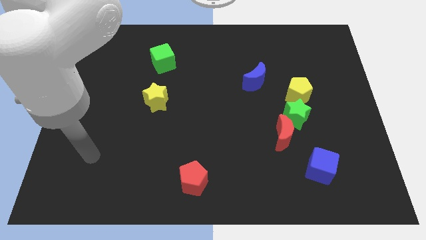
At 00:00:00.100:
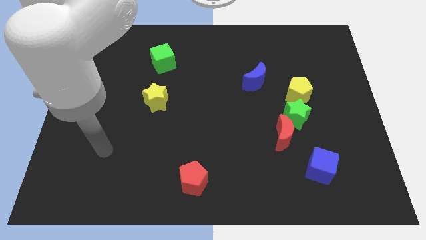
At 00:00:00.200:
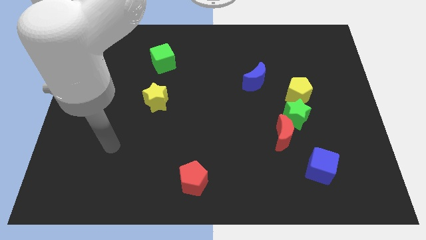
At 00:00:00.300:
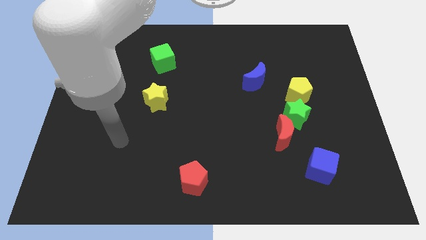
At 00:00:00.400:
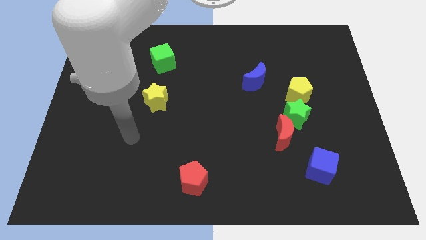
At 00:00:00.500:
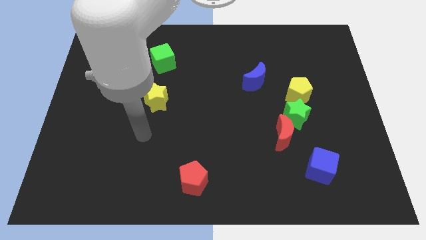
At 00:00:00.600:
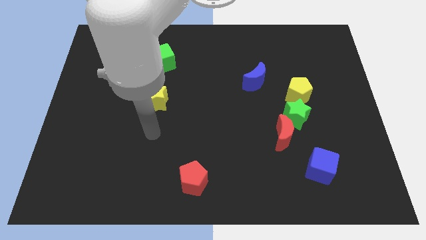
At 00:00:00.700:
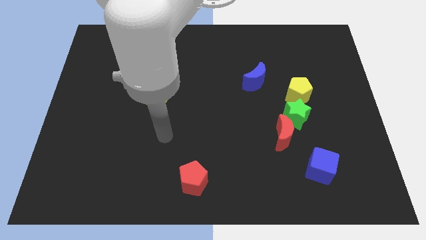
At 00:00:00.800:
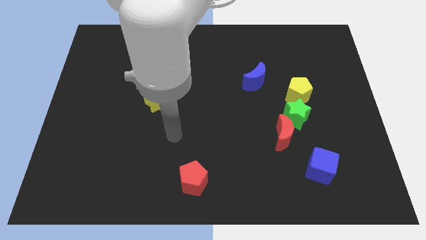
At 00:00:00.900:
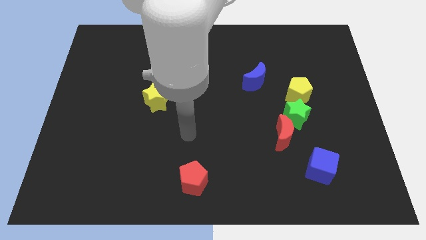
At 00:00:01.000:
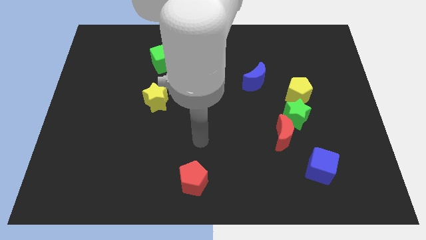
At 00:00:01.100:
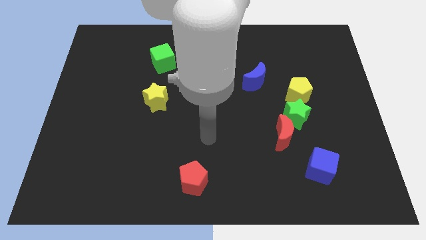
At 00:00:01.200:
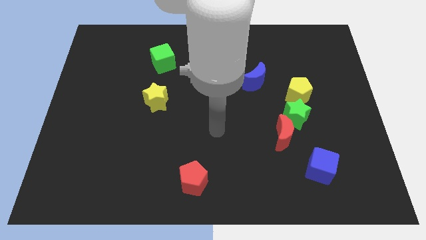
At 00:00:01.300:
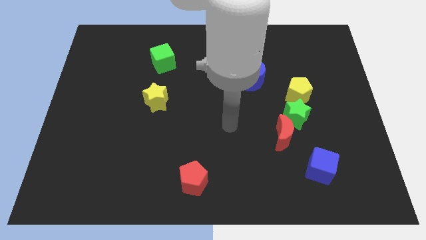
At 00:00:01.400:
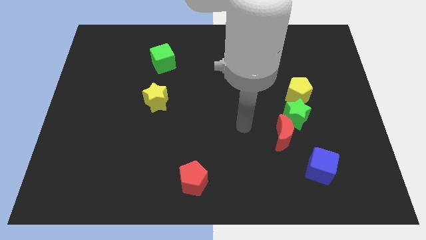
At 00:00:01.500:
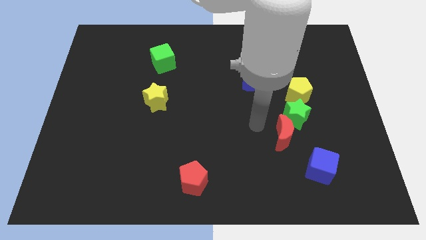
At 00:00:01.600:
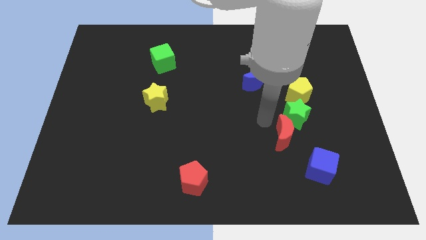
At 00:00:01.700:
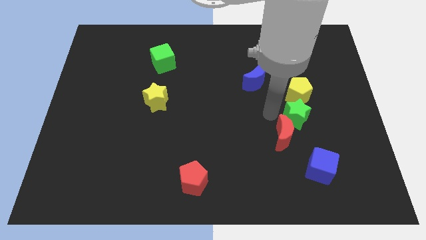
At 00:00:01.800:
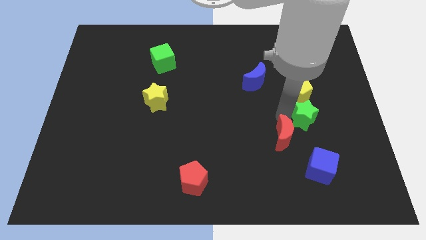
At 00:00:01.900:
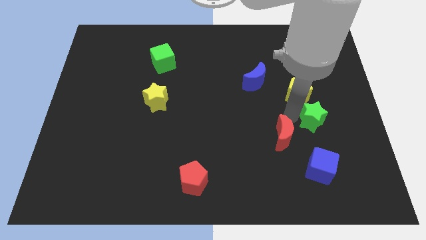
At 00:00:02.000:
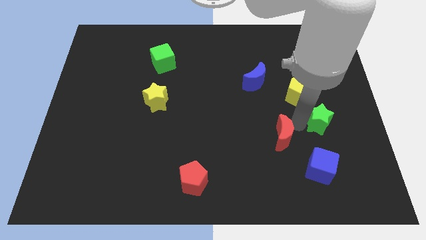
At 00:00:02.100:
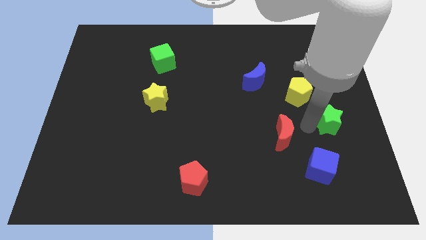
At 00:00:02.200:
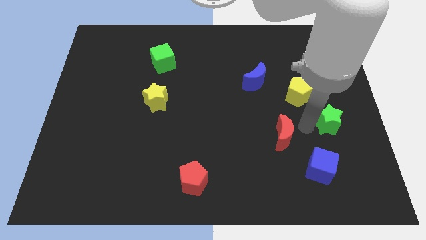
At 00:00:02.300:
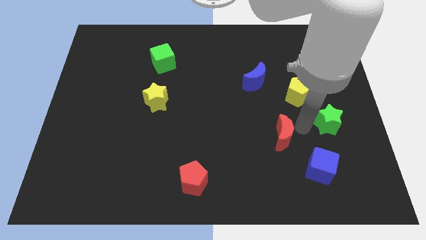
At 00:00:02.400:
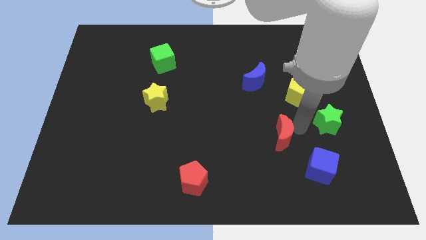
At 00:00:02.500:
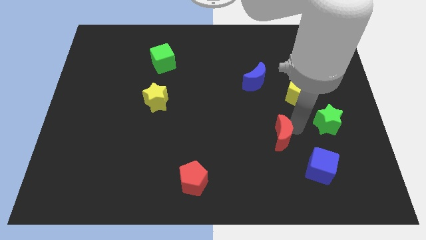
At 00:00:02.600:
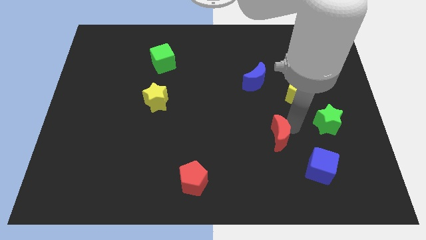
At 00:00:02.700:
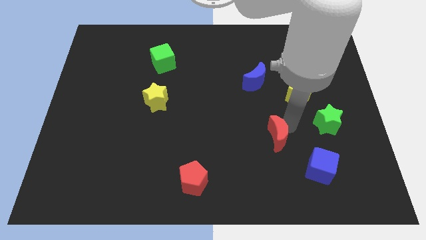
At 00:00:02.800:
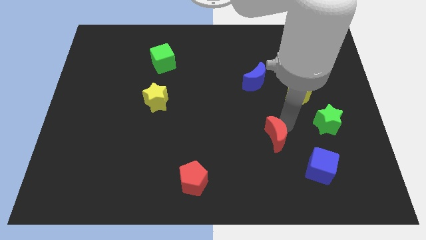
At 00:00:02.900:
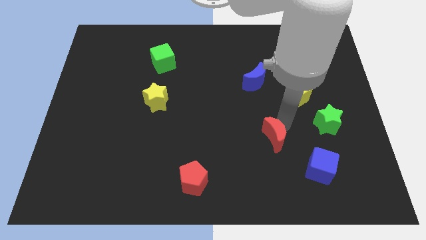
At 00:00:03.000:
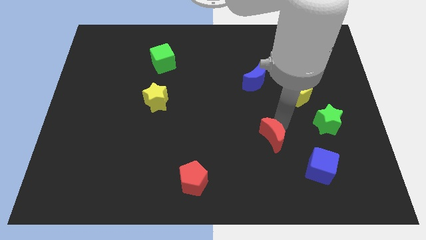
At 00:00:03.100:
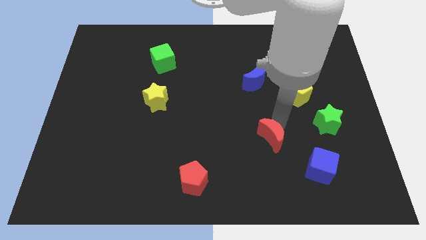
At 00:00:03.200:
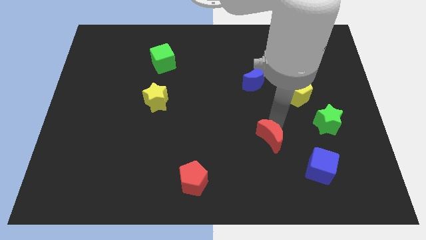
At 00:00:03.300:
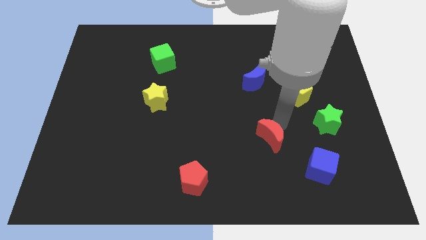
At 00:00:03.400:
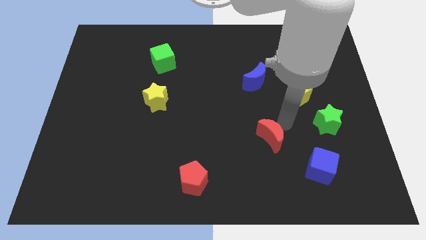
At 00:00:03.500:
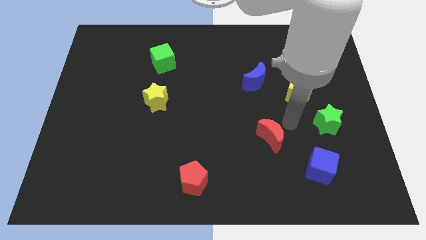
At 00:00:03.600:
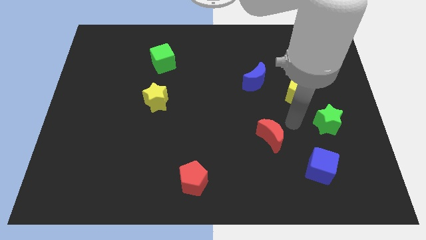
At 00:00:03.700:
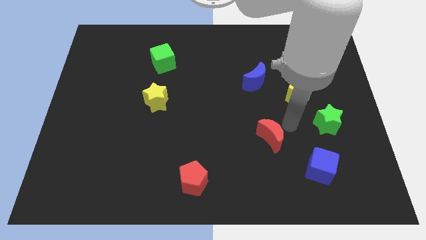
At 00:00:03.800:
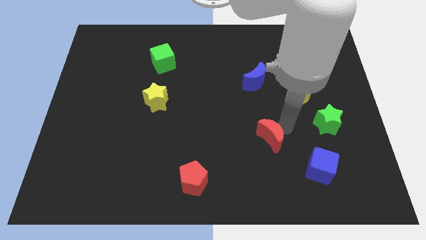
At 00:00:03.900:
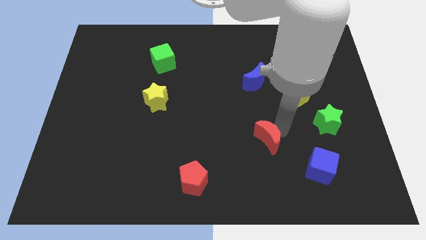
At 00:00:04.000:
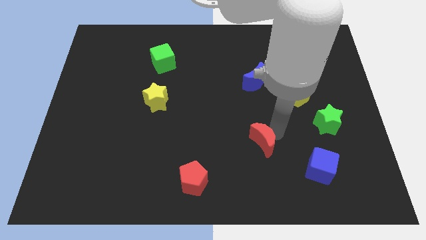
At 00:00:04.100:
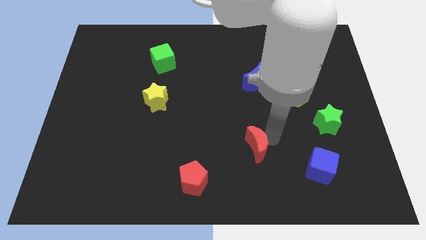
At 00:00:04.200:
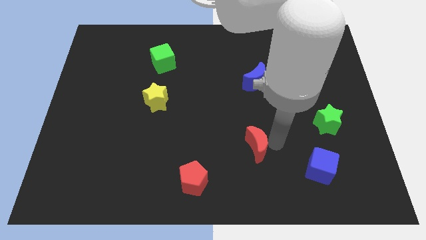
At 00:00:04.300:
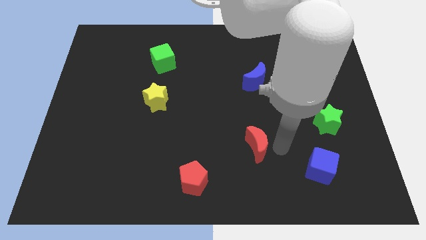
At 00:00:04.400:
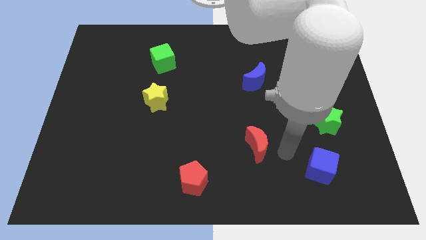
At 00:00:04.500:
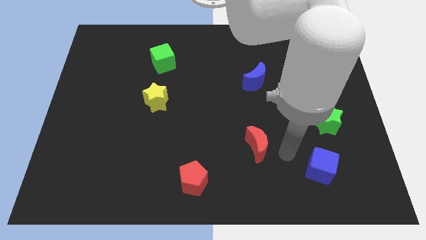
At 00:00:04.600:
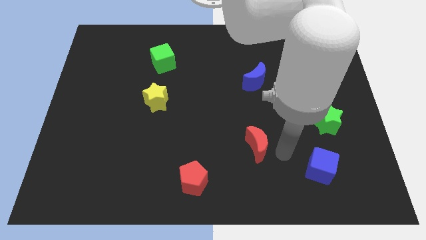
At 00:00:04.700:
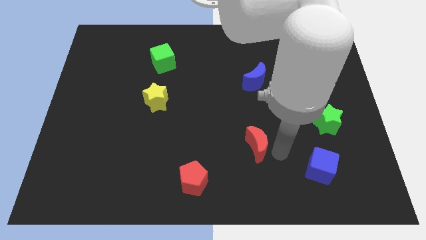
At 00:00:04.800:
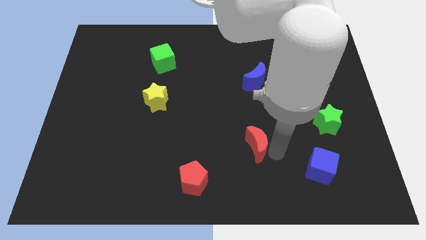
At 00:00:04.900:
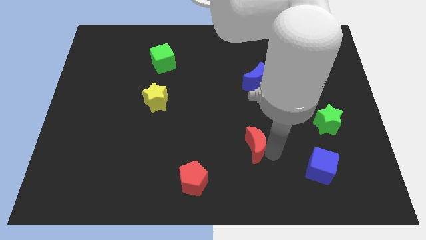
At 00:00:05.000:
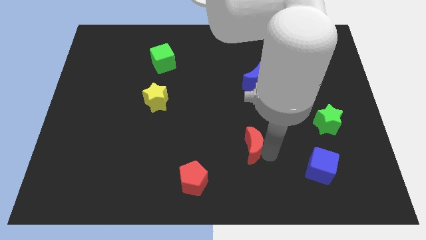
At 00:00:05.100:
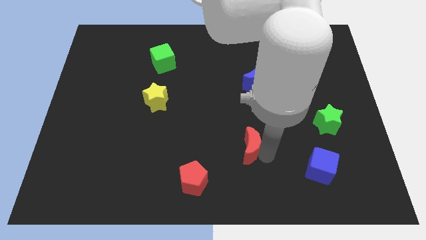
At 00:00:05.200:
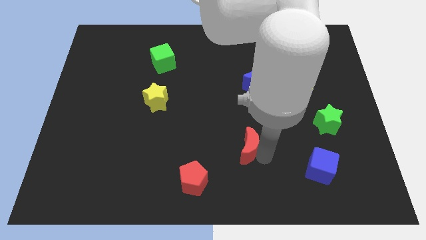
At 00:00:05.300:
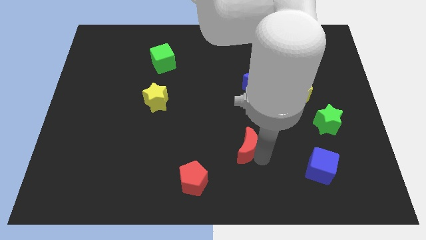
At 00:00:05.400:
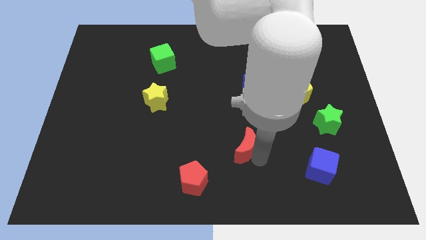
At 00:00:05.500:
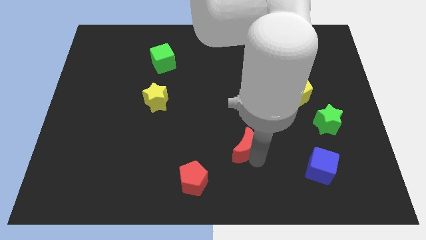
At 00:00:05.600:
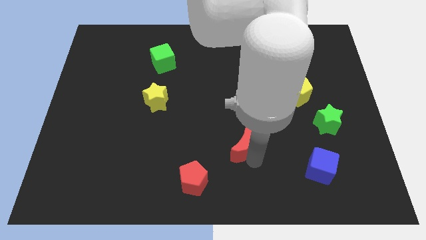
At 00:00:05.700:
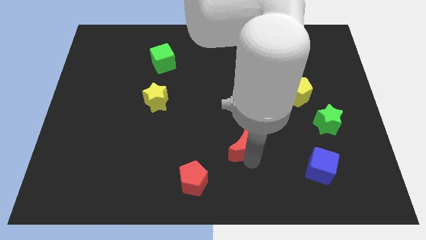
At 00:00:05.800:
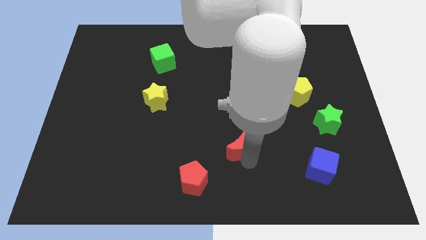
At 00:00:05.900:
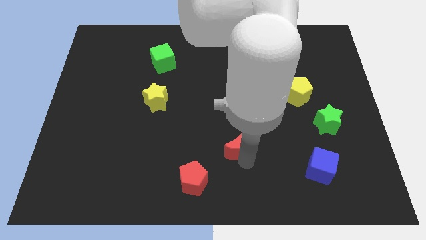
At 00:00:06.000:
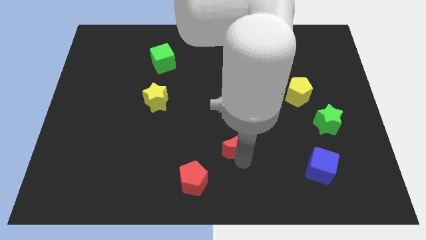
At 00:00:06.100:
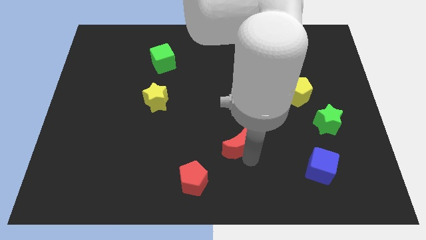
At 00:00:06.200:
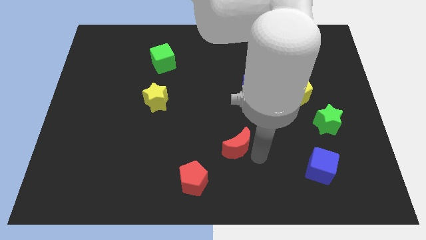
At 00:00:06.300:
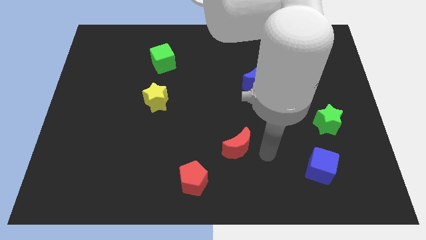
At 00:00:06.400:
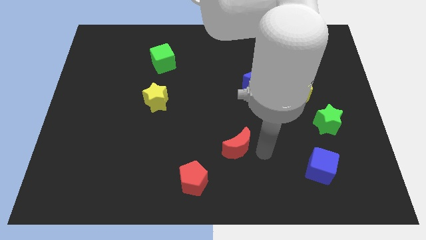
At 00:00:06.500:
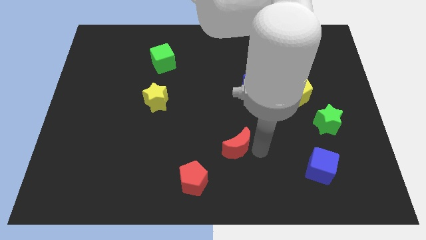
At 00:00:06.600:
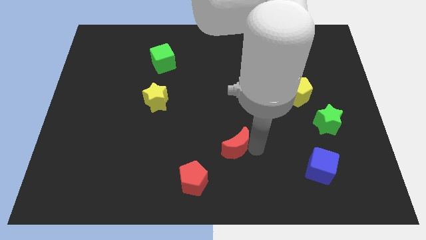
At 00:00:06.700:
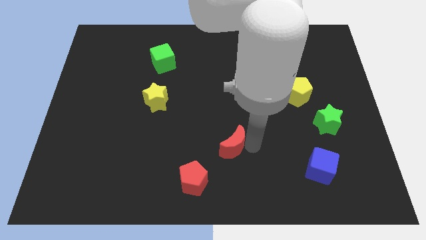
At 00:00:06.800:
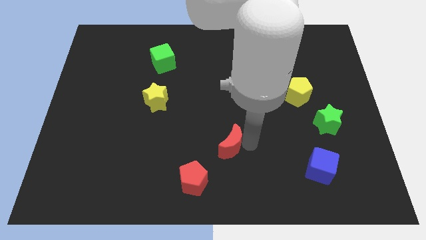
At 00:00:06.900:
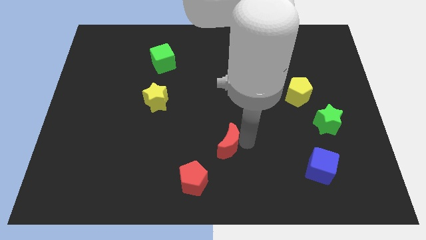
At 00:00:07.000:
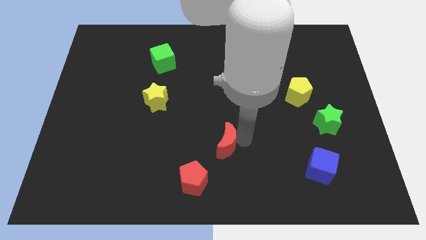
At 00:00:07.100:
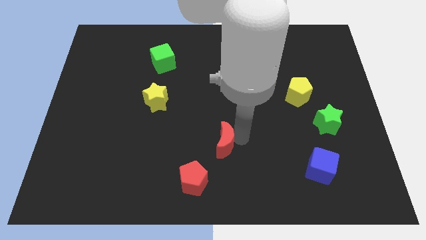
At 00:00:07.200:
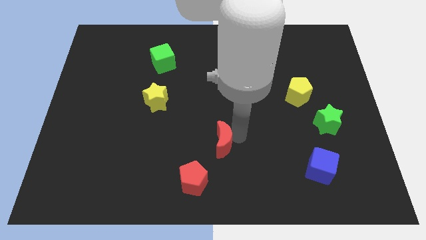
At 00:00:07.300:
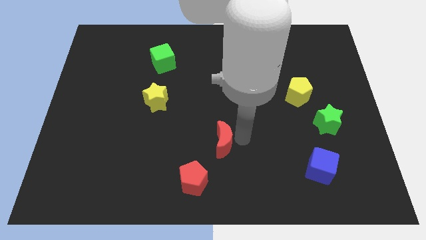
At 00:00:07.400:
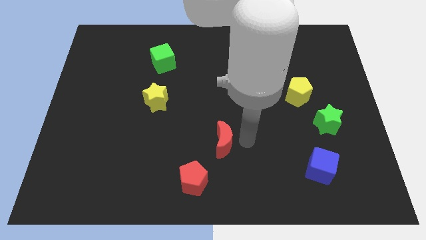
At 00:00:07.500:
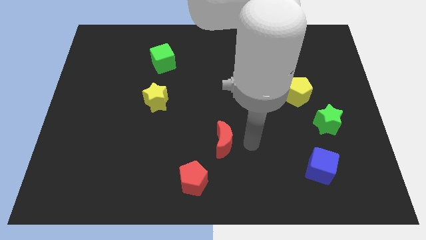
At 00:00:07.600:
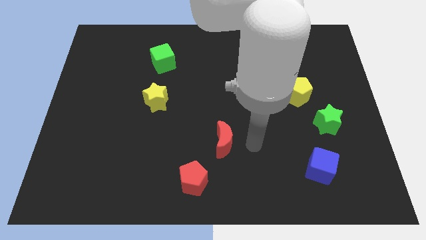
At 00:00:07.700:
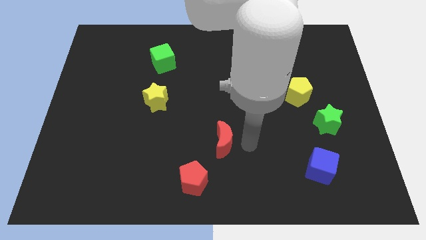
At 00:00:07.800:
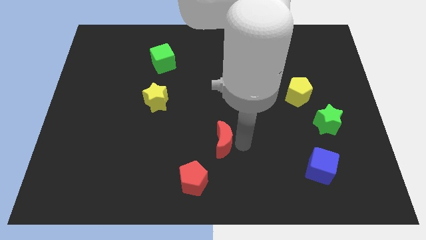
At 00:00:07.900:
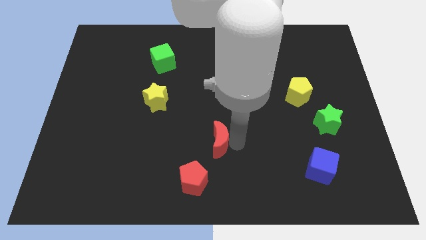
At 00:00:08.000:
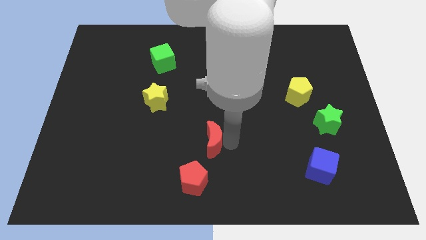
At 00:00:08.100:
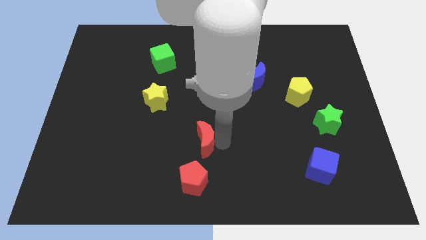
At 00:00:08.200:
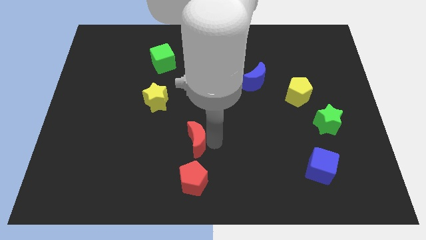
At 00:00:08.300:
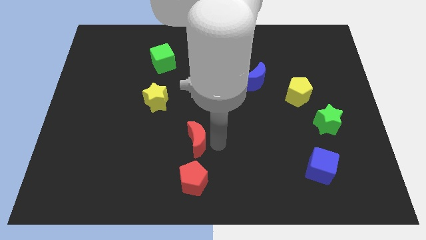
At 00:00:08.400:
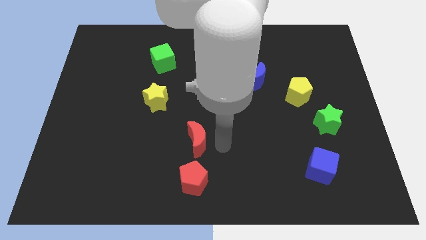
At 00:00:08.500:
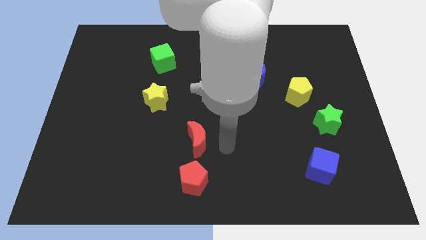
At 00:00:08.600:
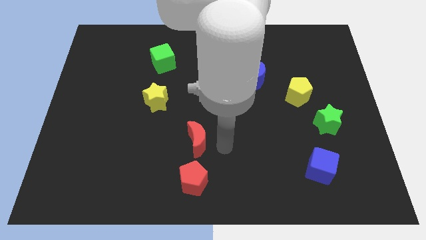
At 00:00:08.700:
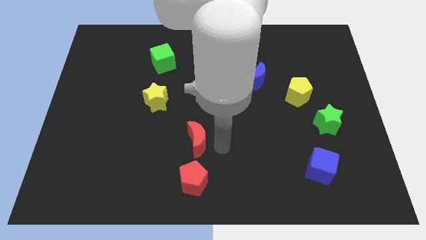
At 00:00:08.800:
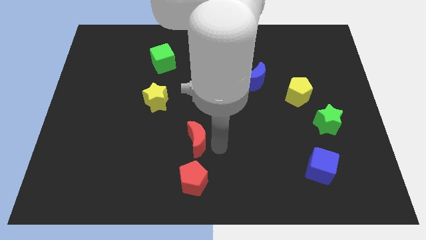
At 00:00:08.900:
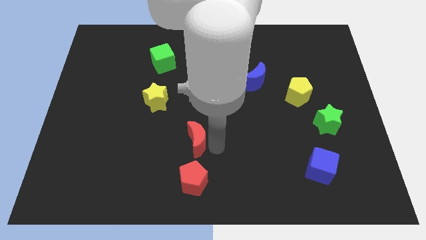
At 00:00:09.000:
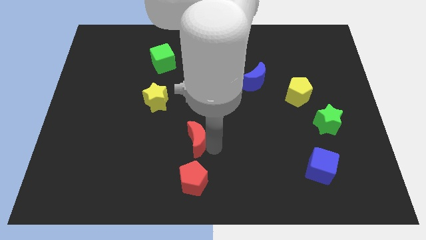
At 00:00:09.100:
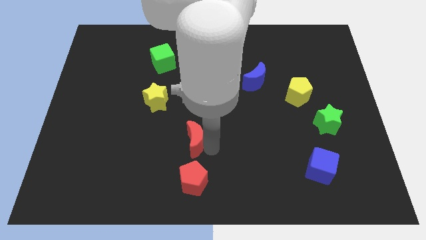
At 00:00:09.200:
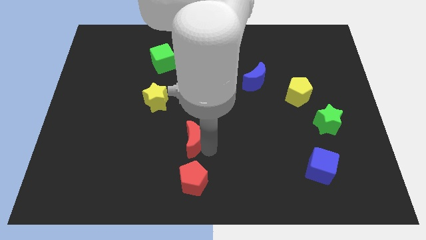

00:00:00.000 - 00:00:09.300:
push the red moon to the left
